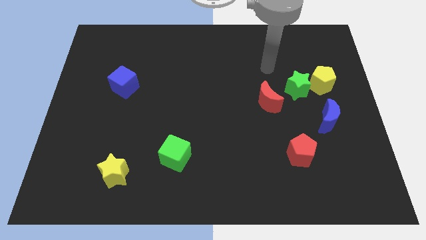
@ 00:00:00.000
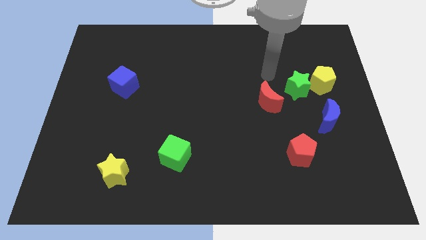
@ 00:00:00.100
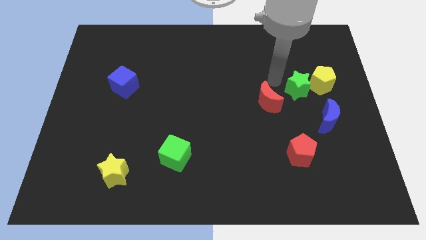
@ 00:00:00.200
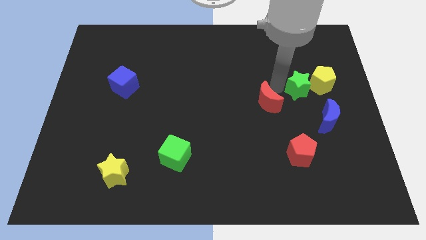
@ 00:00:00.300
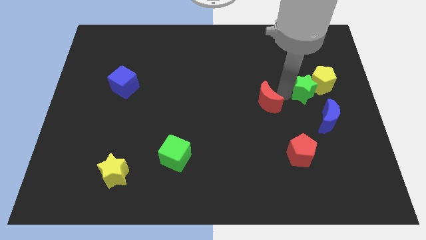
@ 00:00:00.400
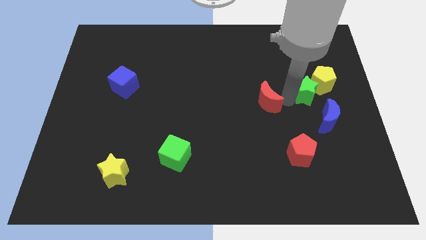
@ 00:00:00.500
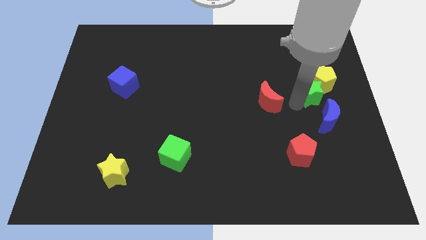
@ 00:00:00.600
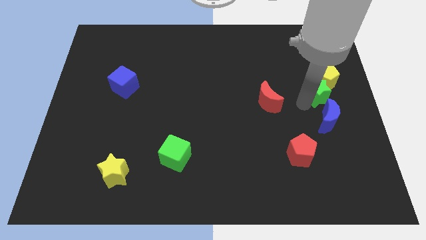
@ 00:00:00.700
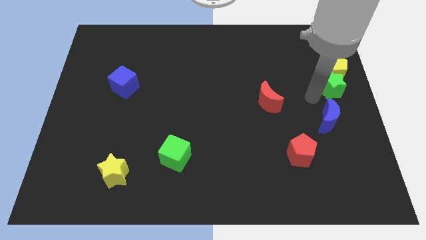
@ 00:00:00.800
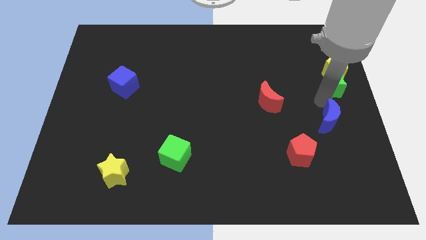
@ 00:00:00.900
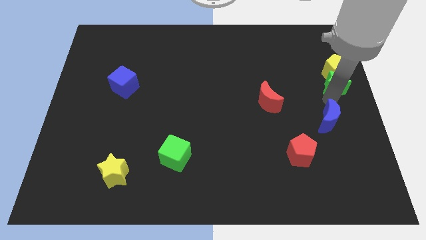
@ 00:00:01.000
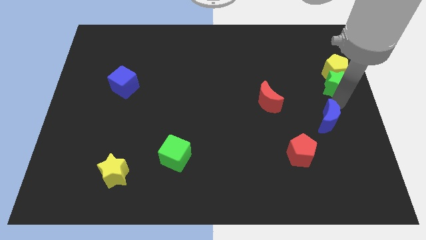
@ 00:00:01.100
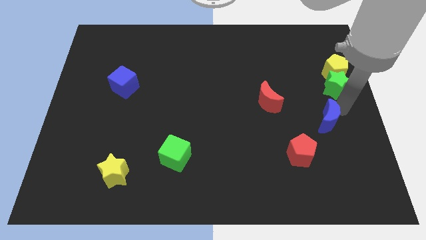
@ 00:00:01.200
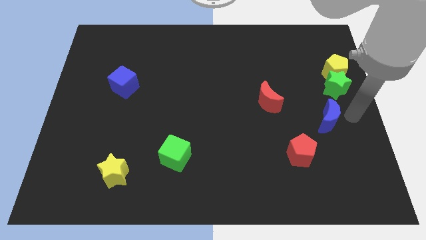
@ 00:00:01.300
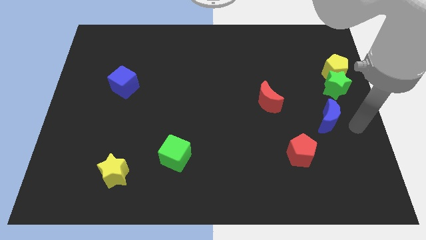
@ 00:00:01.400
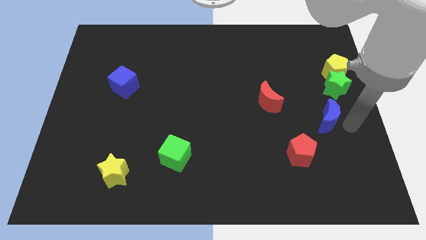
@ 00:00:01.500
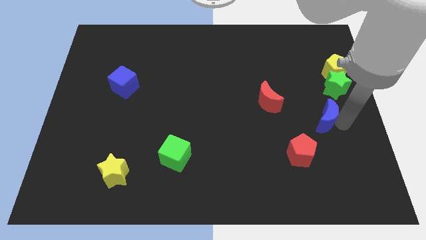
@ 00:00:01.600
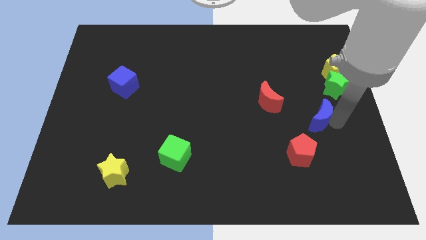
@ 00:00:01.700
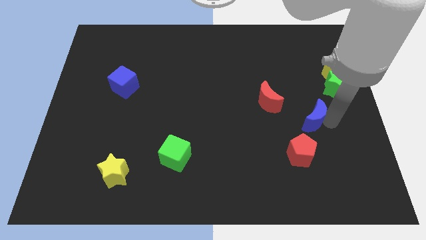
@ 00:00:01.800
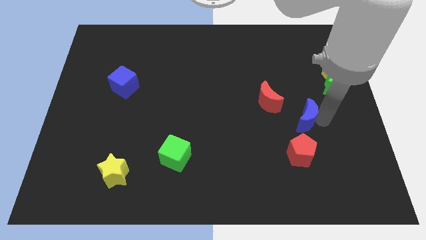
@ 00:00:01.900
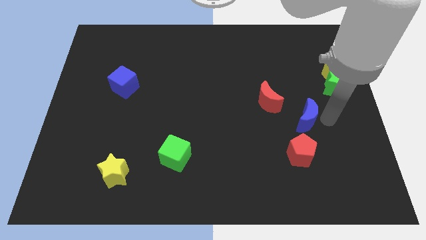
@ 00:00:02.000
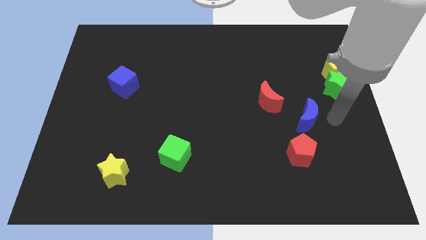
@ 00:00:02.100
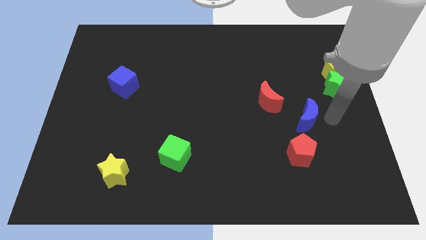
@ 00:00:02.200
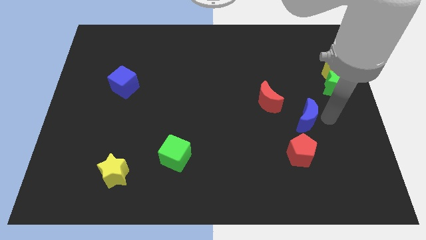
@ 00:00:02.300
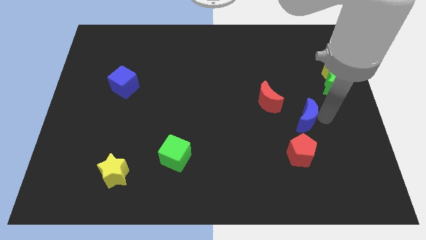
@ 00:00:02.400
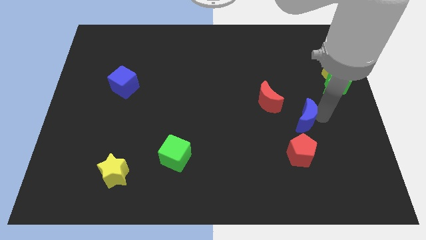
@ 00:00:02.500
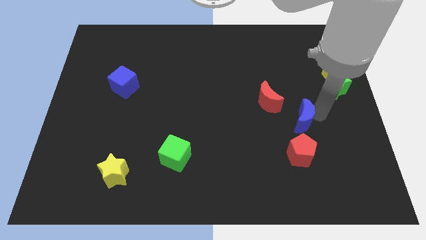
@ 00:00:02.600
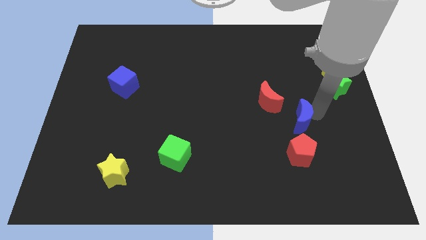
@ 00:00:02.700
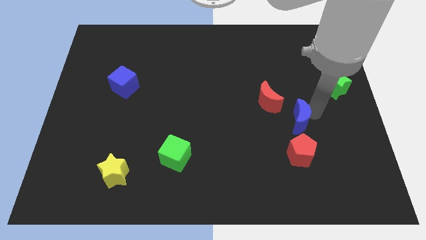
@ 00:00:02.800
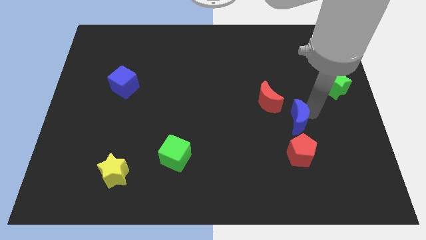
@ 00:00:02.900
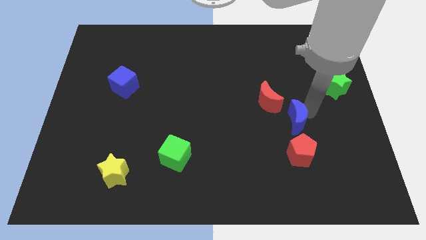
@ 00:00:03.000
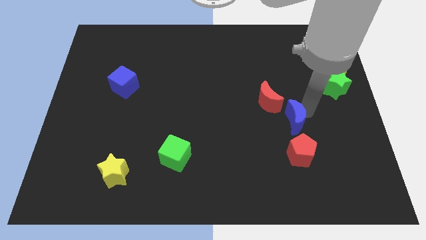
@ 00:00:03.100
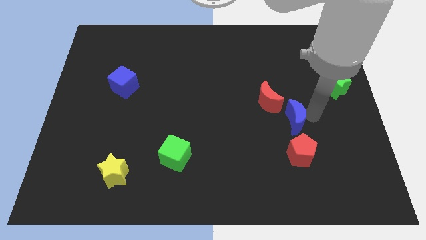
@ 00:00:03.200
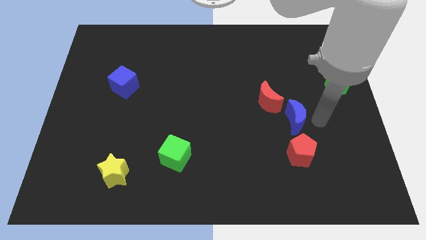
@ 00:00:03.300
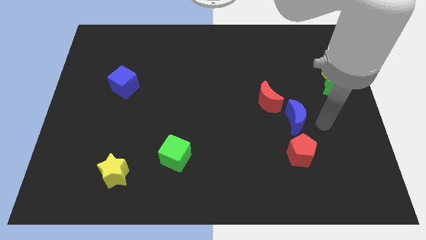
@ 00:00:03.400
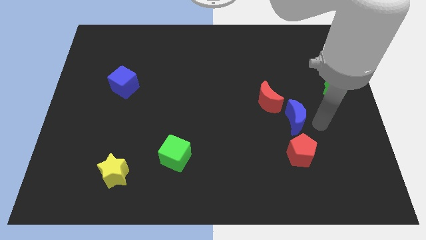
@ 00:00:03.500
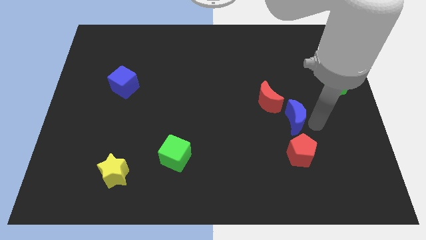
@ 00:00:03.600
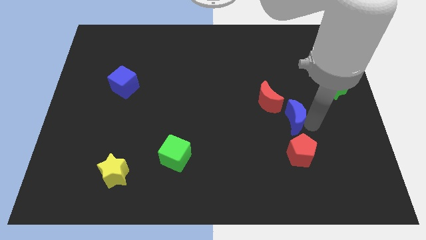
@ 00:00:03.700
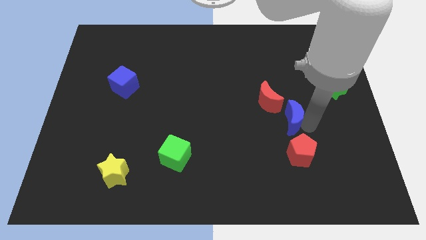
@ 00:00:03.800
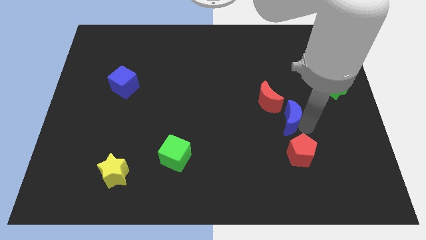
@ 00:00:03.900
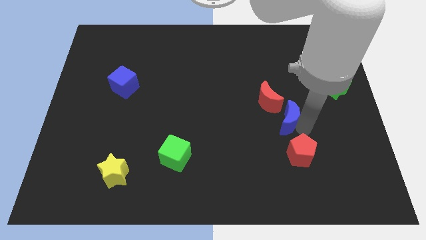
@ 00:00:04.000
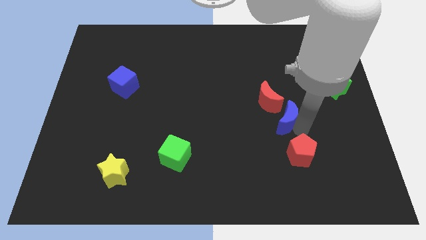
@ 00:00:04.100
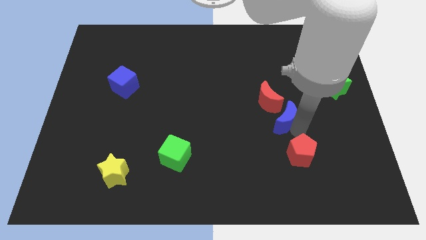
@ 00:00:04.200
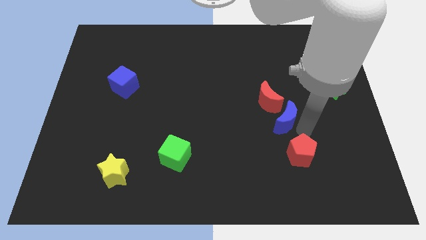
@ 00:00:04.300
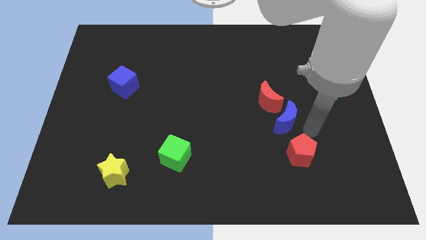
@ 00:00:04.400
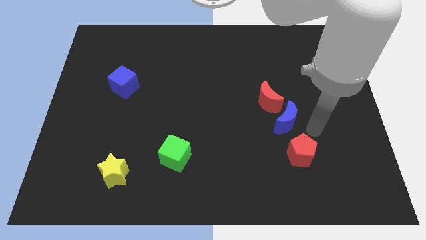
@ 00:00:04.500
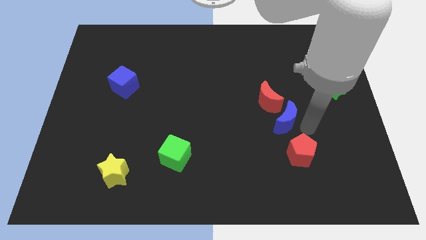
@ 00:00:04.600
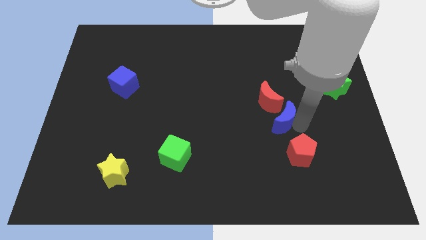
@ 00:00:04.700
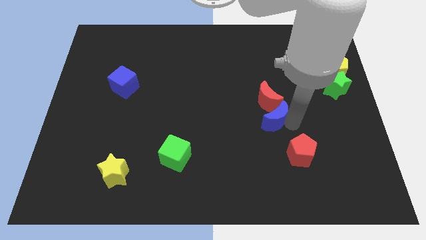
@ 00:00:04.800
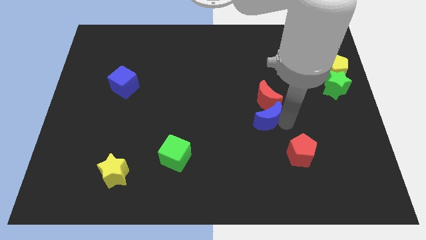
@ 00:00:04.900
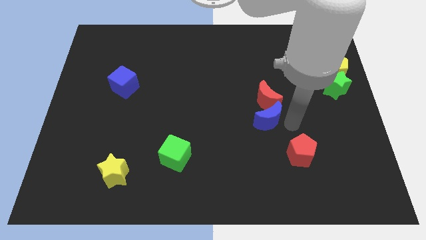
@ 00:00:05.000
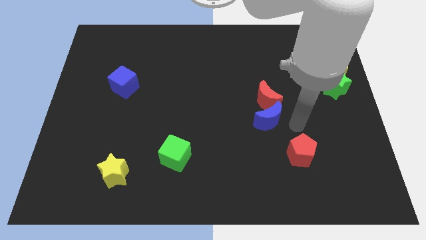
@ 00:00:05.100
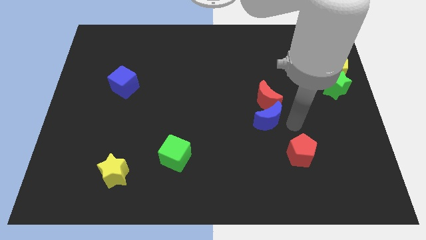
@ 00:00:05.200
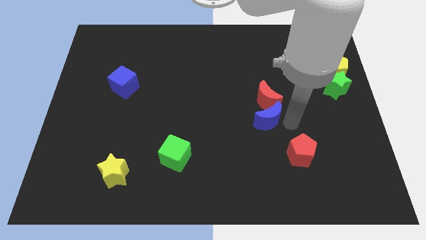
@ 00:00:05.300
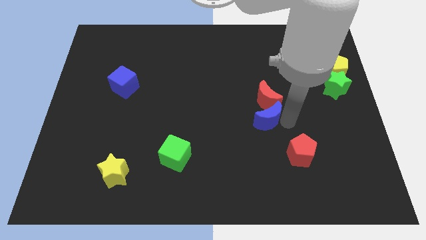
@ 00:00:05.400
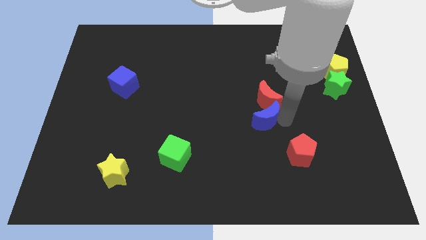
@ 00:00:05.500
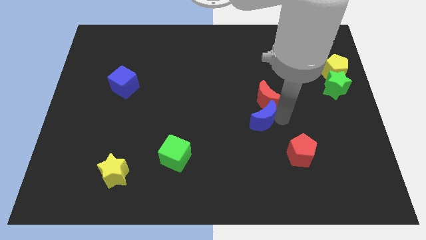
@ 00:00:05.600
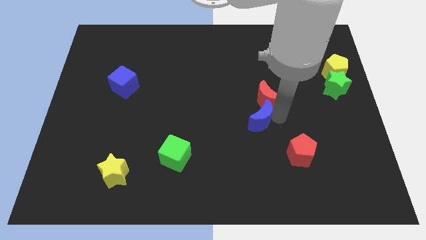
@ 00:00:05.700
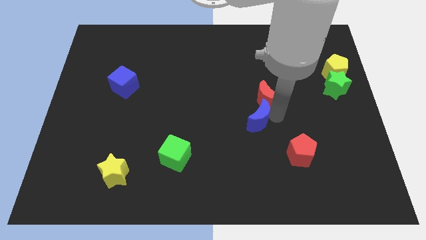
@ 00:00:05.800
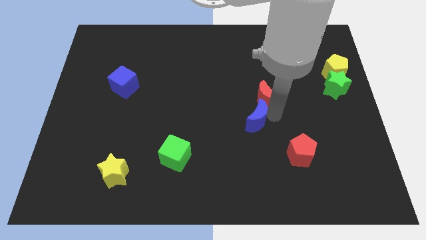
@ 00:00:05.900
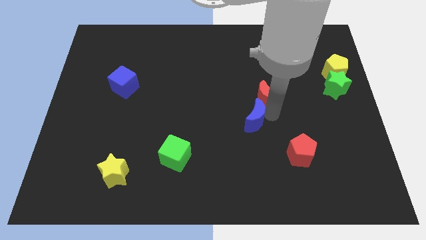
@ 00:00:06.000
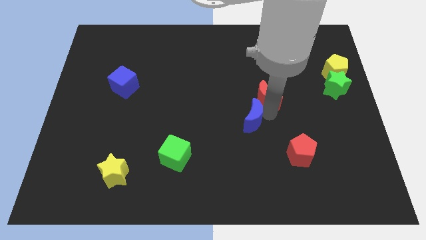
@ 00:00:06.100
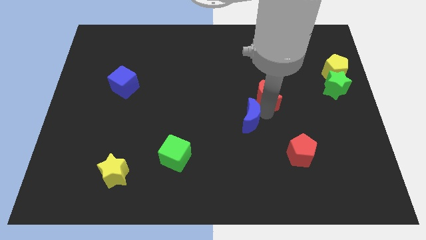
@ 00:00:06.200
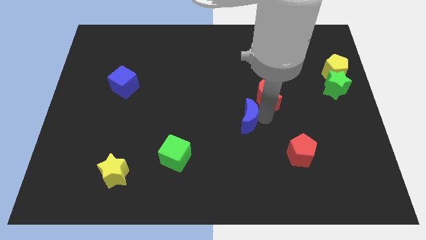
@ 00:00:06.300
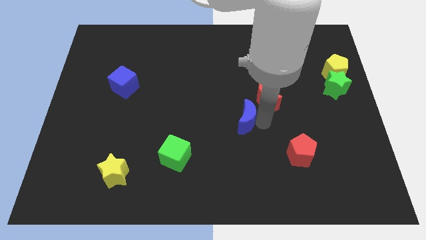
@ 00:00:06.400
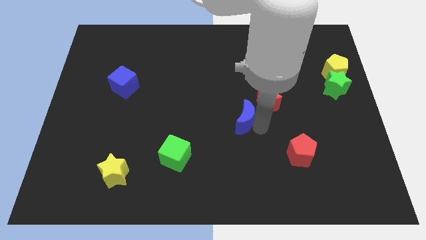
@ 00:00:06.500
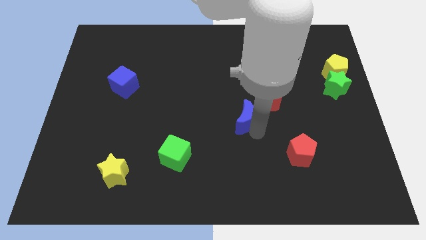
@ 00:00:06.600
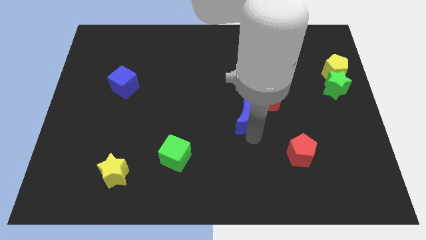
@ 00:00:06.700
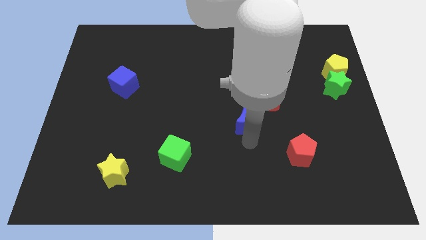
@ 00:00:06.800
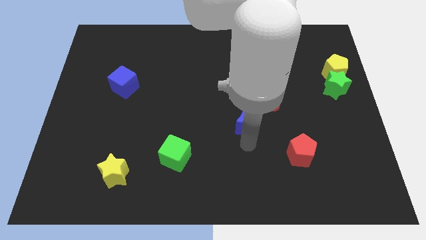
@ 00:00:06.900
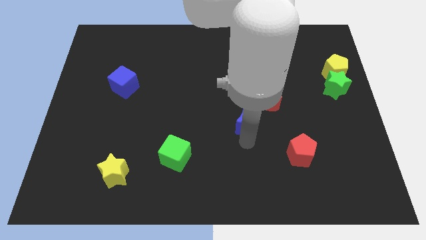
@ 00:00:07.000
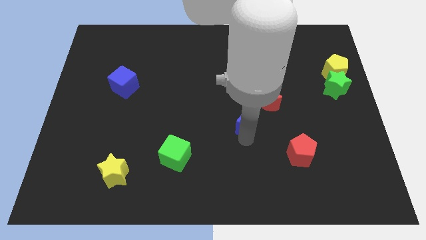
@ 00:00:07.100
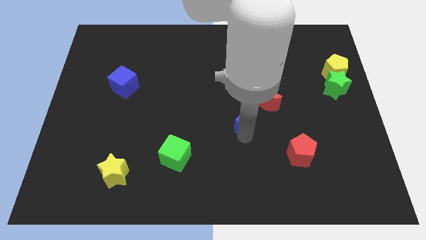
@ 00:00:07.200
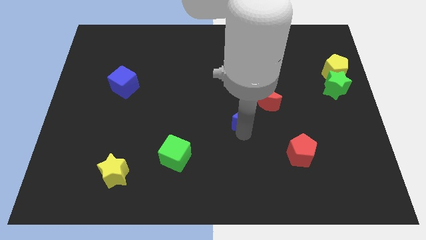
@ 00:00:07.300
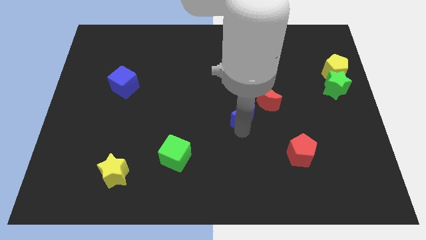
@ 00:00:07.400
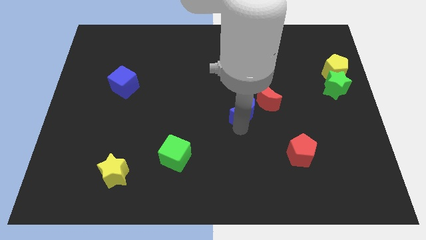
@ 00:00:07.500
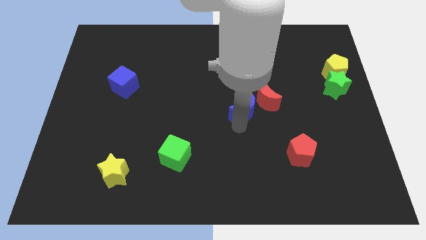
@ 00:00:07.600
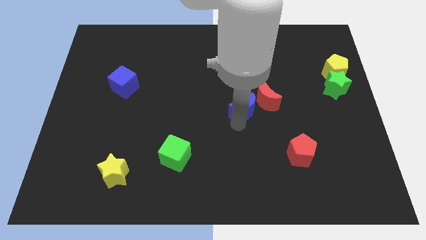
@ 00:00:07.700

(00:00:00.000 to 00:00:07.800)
slightly push the blue moon up and left diagonally
